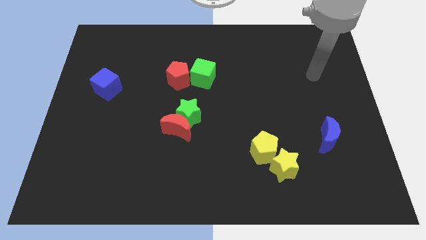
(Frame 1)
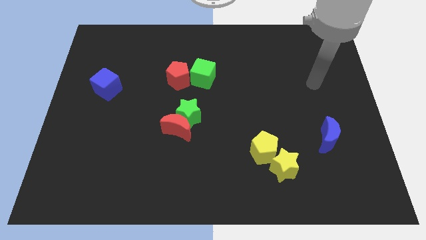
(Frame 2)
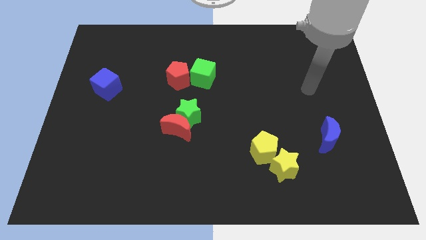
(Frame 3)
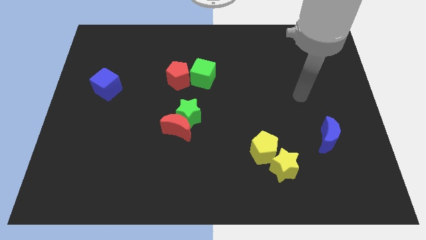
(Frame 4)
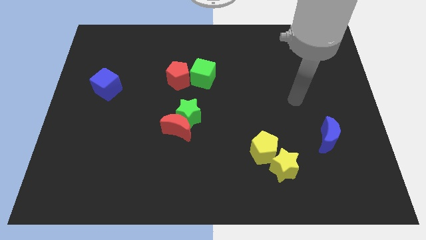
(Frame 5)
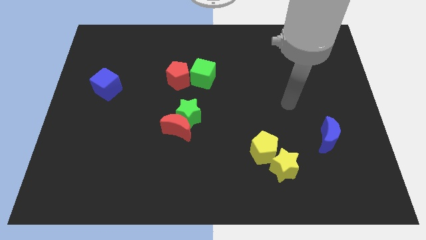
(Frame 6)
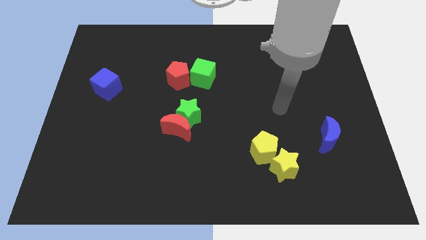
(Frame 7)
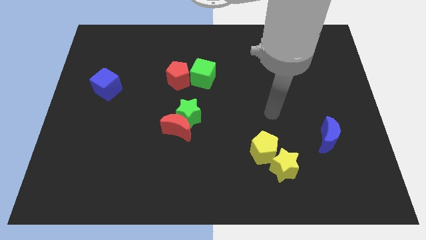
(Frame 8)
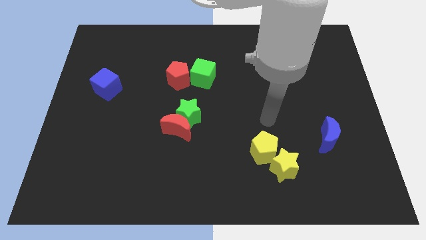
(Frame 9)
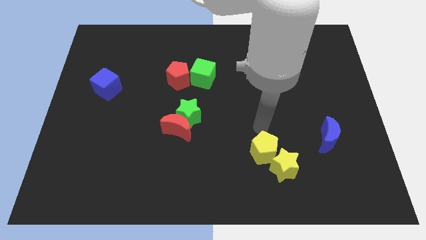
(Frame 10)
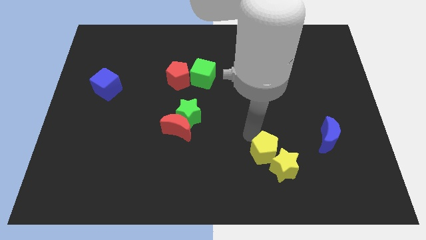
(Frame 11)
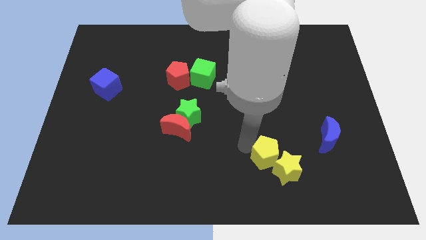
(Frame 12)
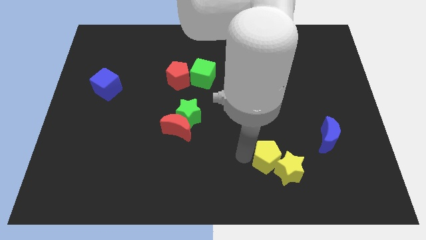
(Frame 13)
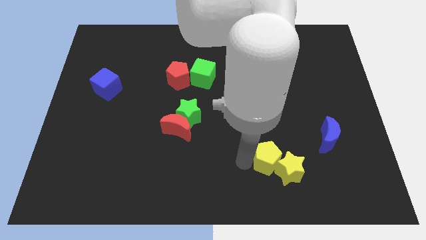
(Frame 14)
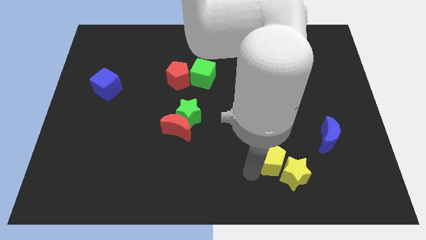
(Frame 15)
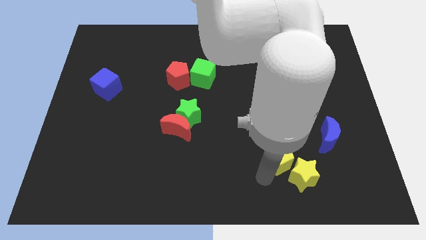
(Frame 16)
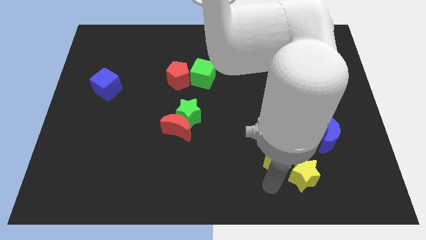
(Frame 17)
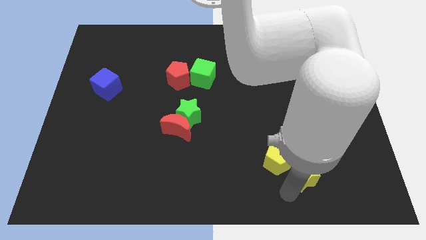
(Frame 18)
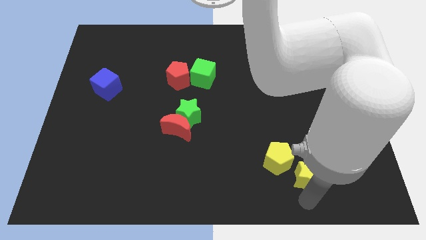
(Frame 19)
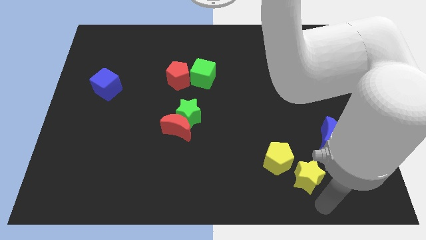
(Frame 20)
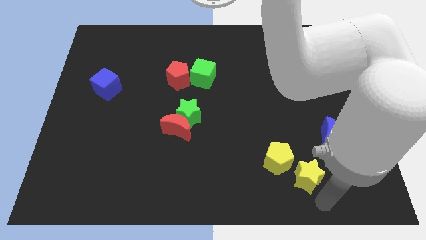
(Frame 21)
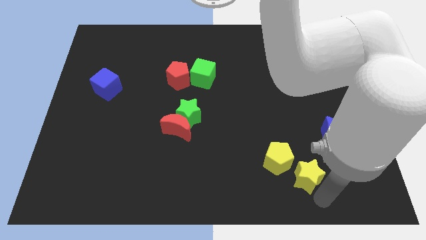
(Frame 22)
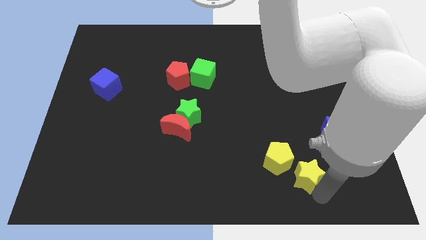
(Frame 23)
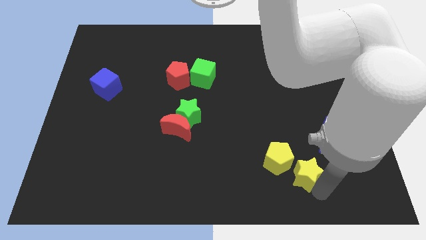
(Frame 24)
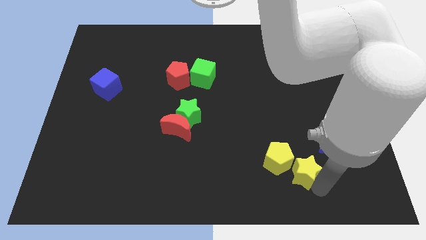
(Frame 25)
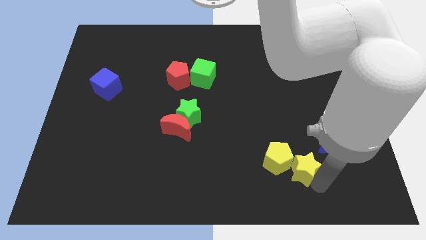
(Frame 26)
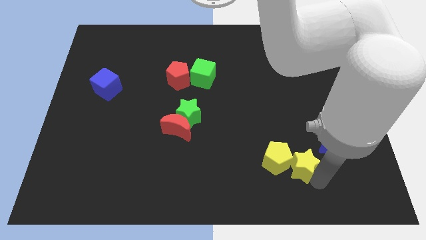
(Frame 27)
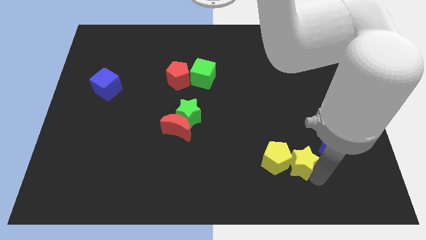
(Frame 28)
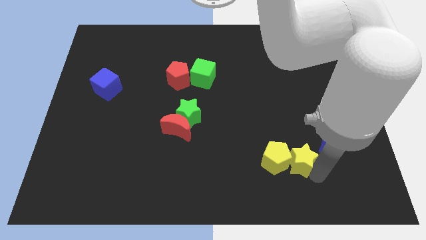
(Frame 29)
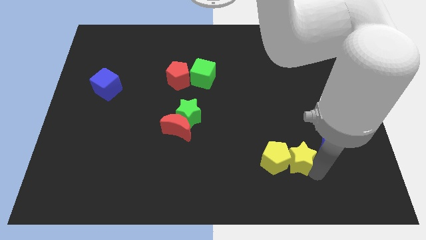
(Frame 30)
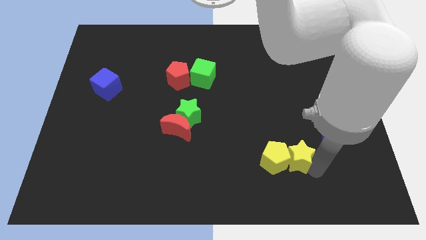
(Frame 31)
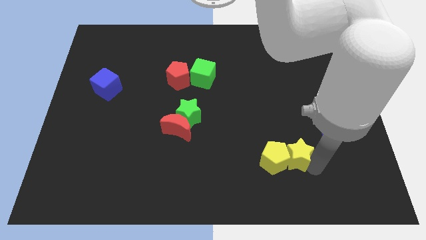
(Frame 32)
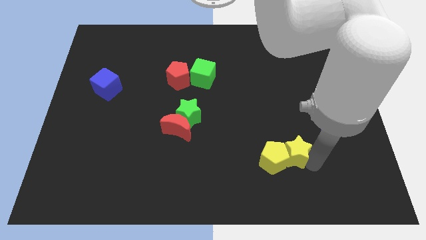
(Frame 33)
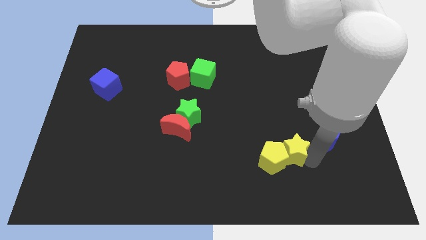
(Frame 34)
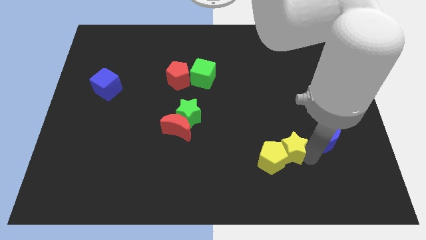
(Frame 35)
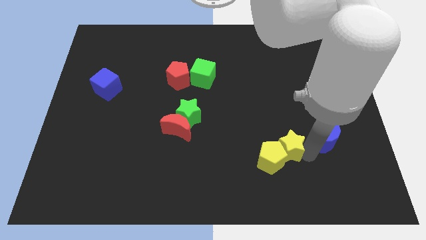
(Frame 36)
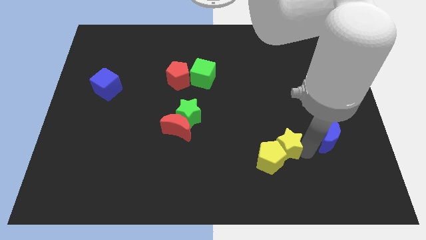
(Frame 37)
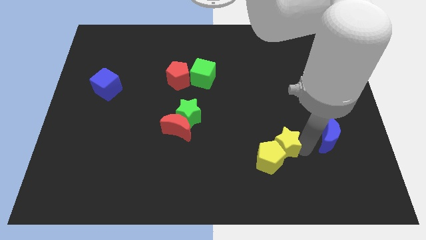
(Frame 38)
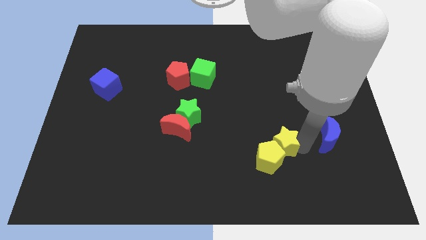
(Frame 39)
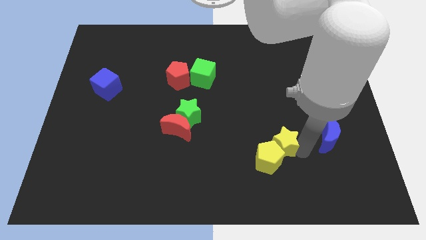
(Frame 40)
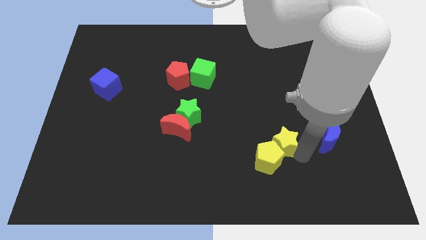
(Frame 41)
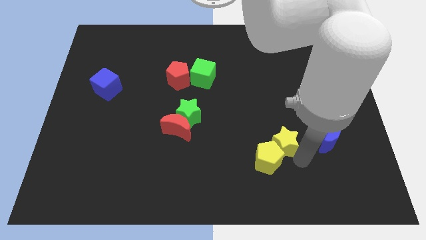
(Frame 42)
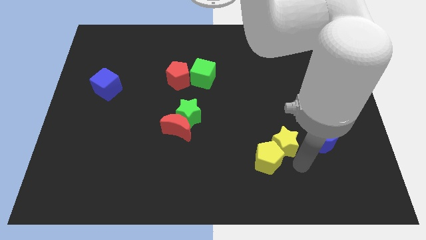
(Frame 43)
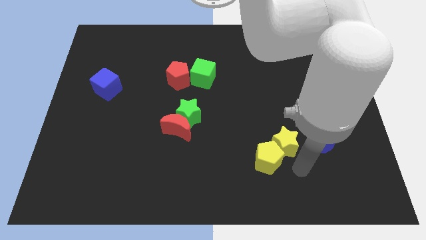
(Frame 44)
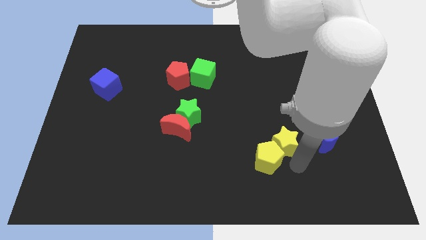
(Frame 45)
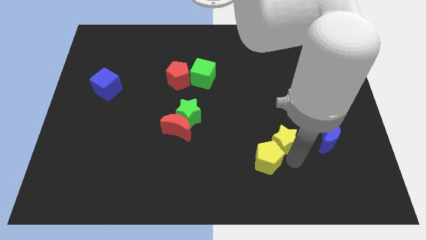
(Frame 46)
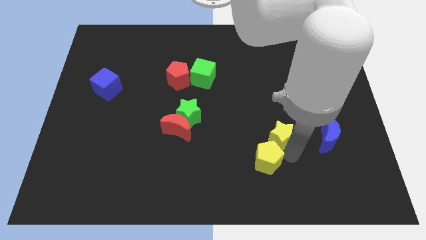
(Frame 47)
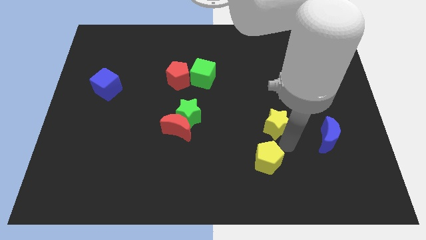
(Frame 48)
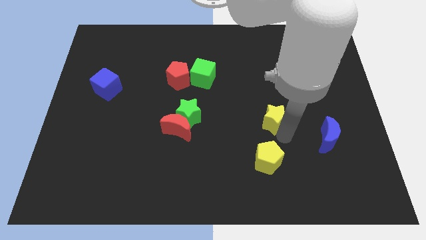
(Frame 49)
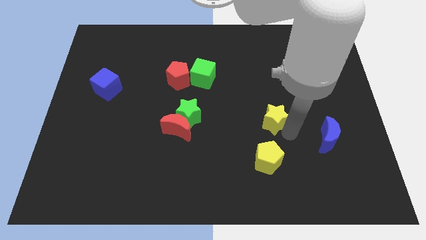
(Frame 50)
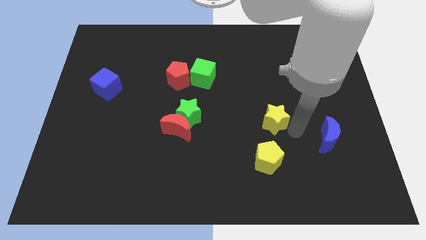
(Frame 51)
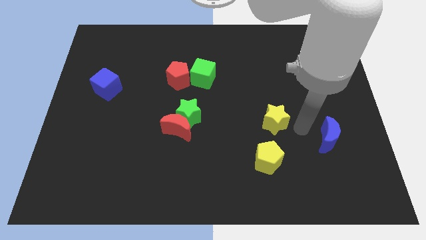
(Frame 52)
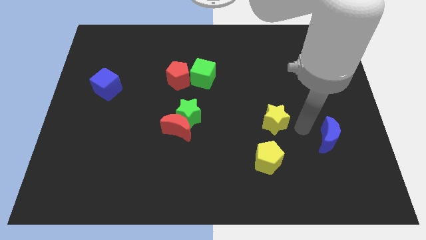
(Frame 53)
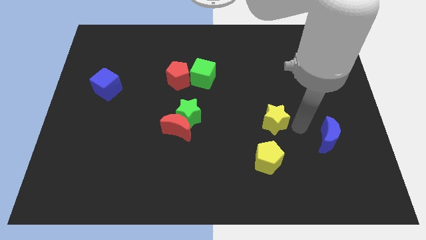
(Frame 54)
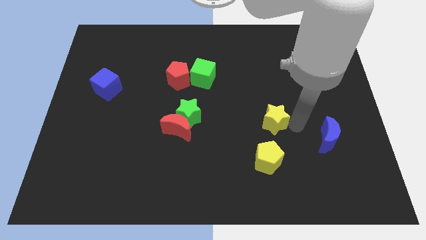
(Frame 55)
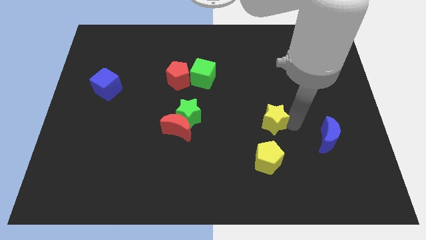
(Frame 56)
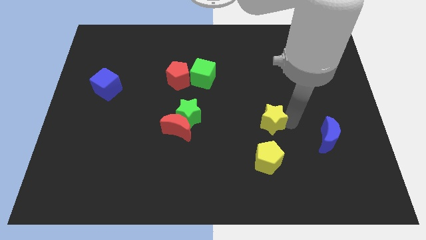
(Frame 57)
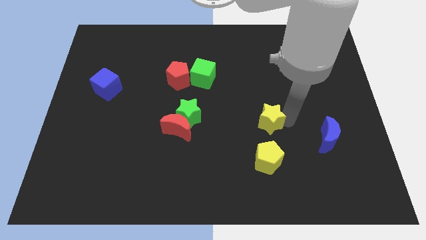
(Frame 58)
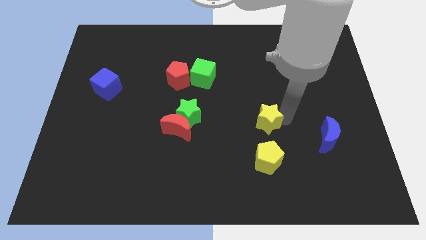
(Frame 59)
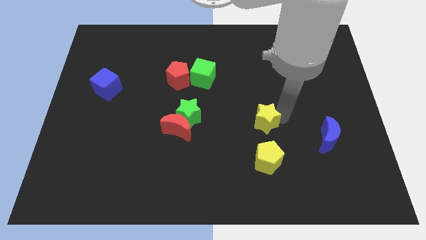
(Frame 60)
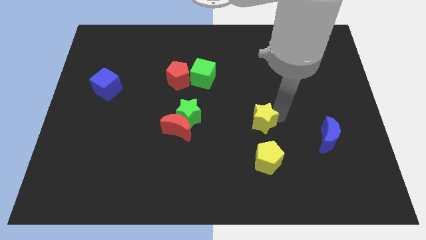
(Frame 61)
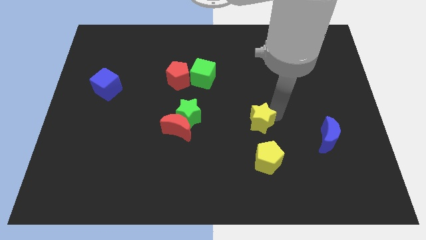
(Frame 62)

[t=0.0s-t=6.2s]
push the yellow star to the center of the board

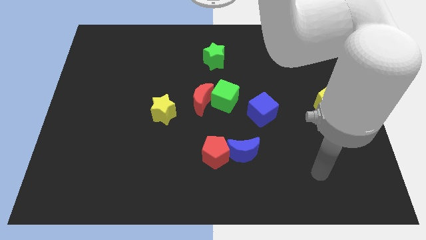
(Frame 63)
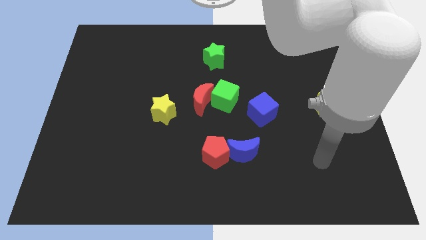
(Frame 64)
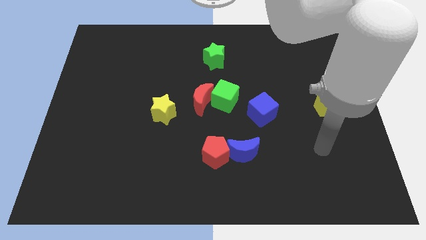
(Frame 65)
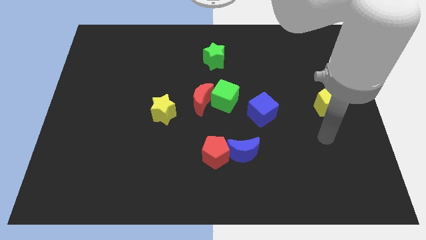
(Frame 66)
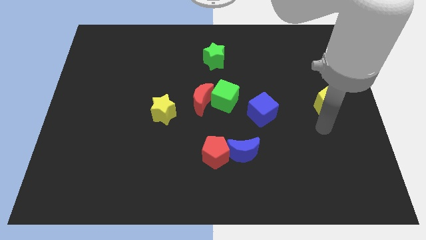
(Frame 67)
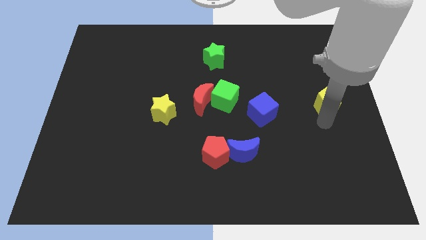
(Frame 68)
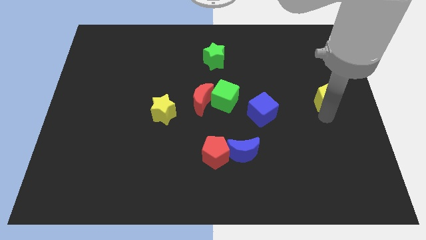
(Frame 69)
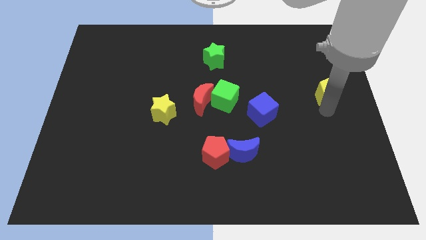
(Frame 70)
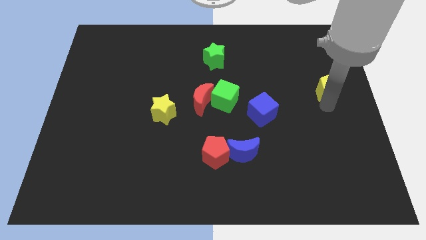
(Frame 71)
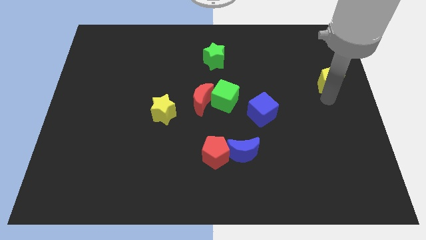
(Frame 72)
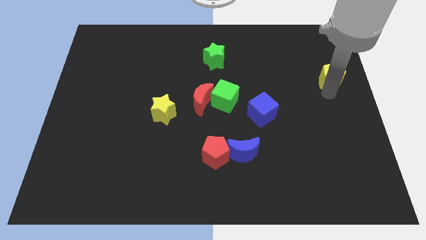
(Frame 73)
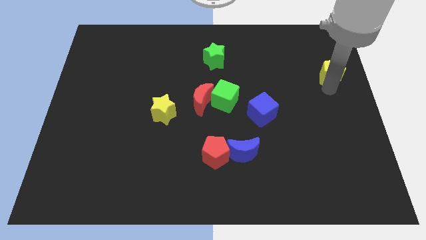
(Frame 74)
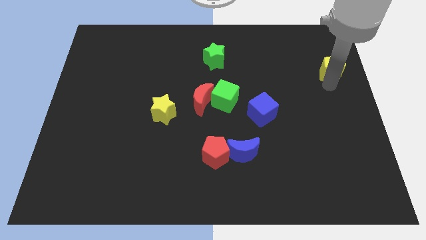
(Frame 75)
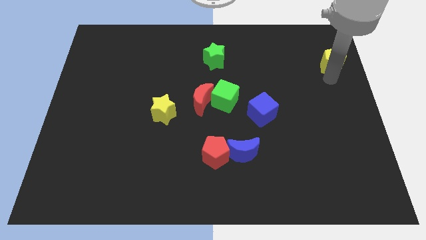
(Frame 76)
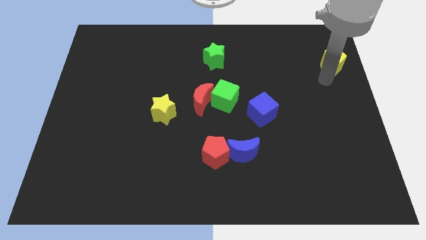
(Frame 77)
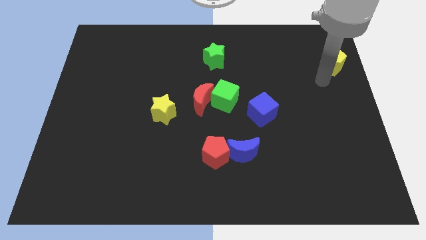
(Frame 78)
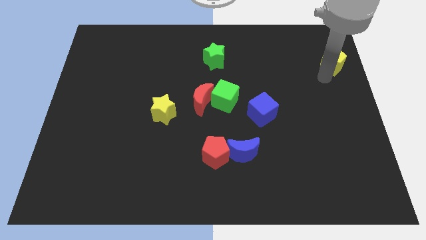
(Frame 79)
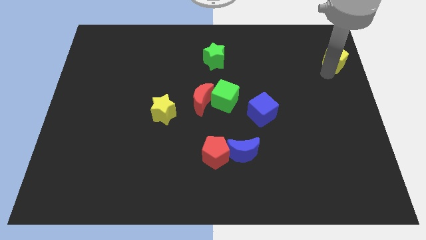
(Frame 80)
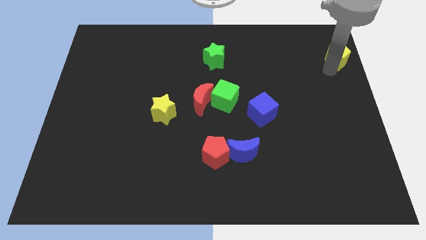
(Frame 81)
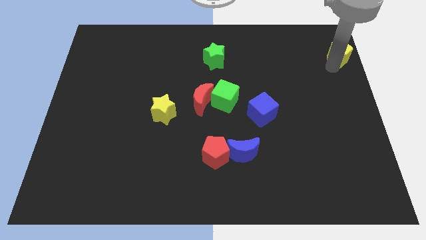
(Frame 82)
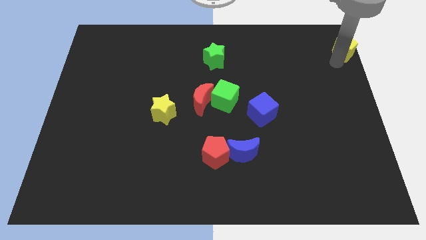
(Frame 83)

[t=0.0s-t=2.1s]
put the yellow pentagon to the upper right corner
